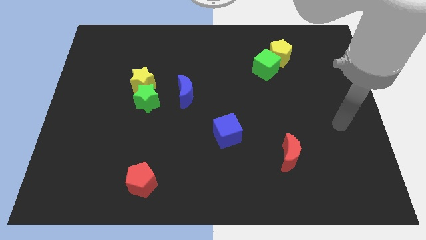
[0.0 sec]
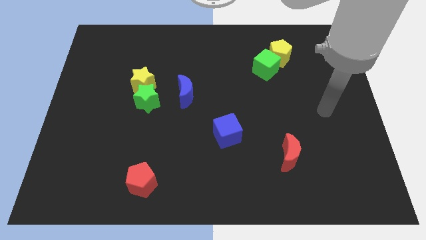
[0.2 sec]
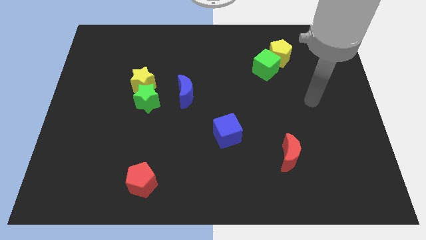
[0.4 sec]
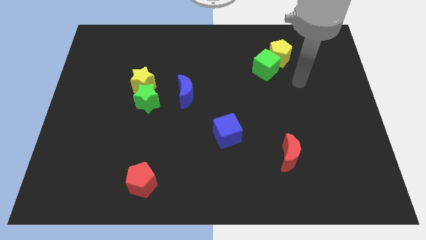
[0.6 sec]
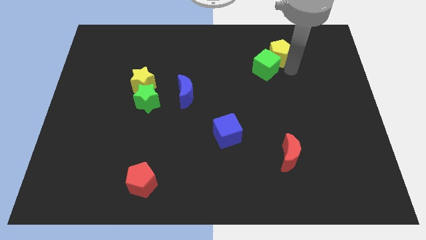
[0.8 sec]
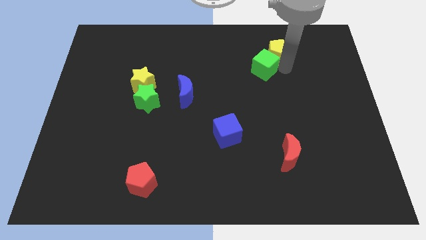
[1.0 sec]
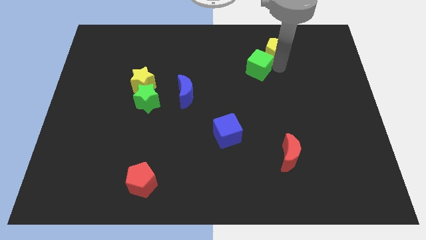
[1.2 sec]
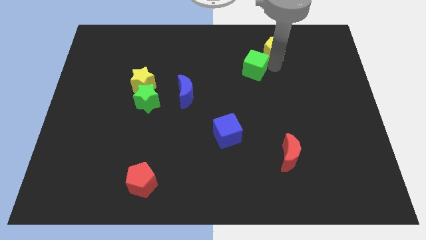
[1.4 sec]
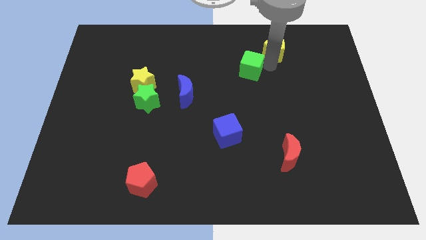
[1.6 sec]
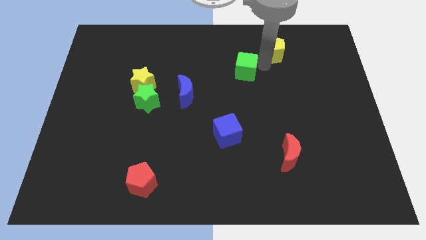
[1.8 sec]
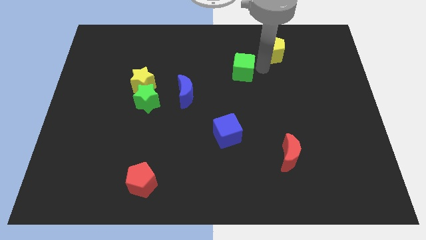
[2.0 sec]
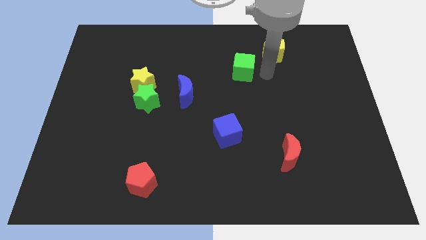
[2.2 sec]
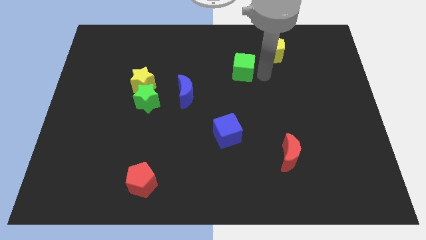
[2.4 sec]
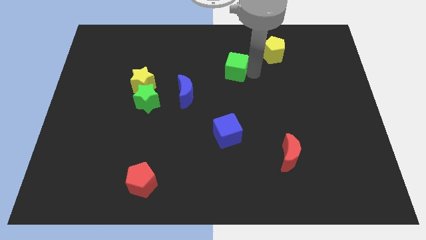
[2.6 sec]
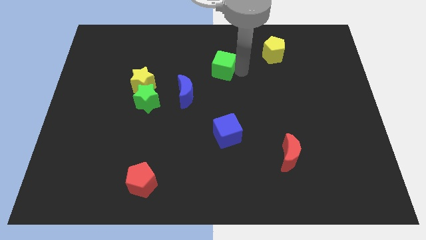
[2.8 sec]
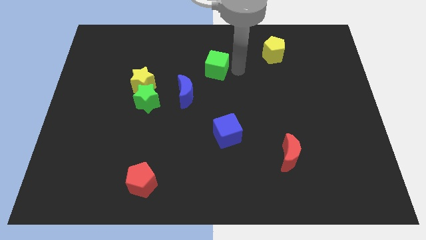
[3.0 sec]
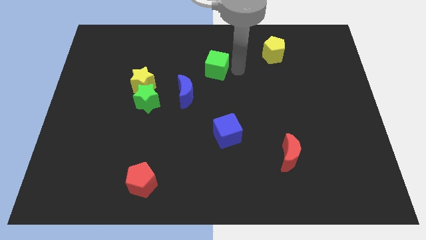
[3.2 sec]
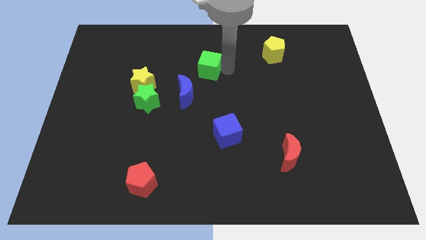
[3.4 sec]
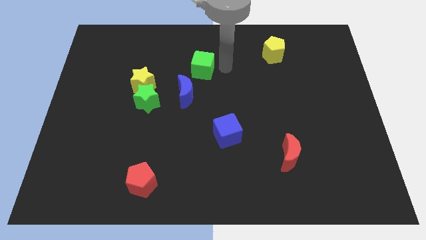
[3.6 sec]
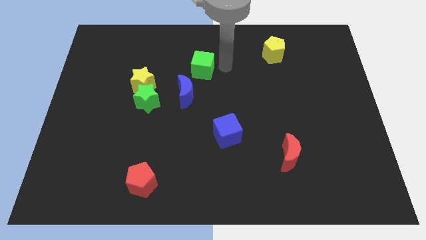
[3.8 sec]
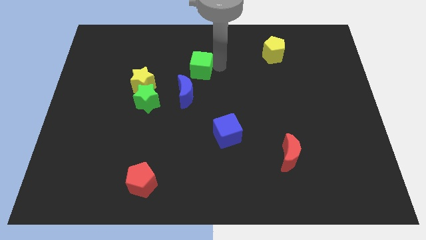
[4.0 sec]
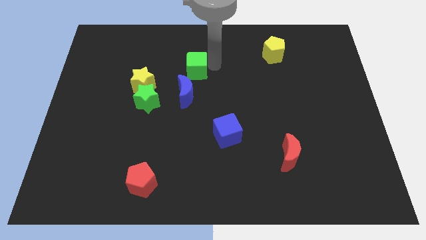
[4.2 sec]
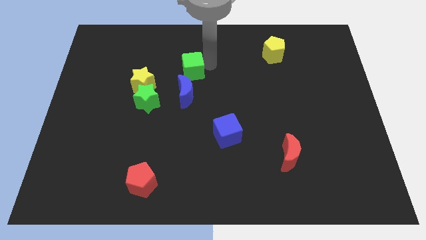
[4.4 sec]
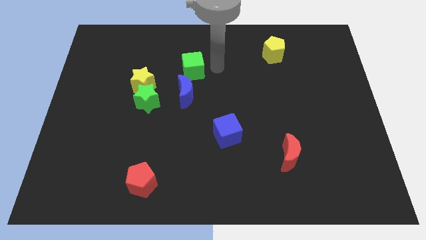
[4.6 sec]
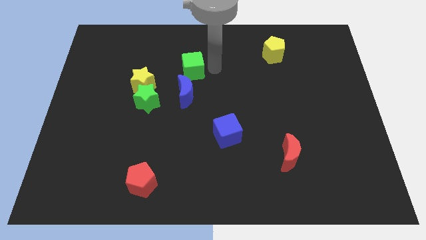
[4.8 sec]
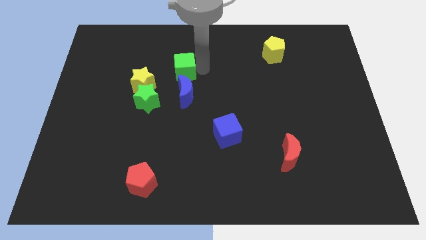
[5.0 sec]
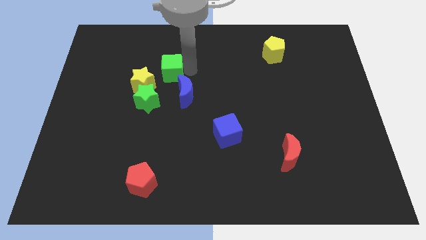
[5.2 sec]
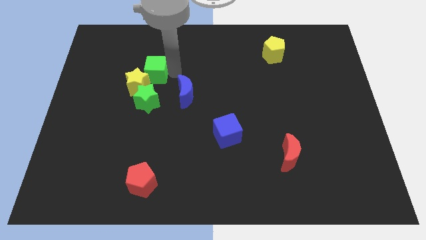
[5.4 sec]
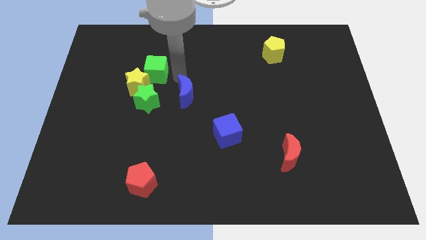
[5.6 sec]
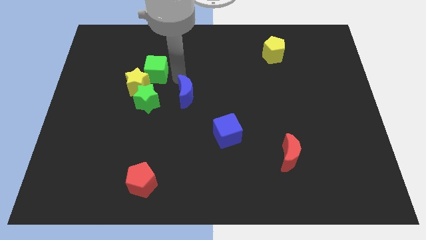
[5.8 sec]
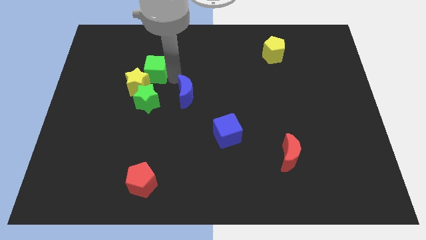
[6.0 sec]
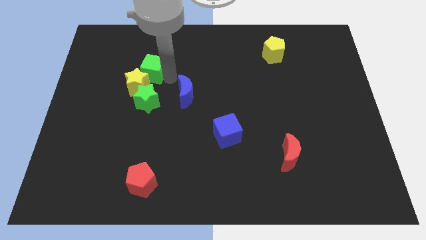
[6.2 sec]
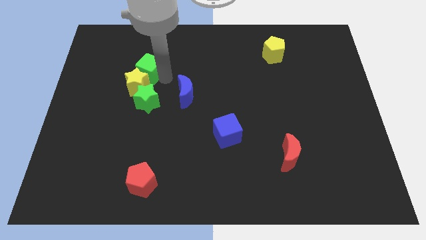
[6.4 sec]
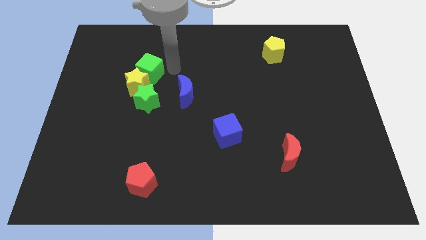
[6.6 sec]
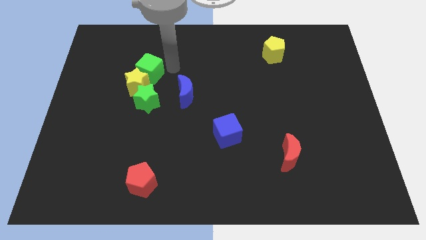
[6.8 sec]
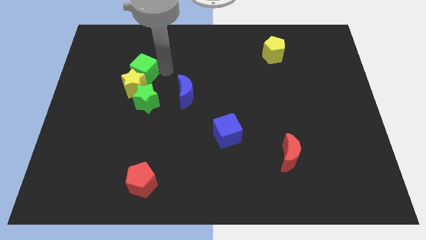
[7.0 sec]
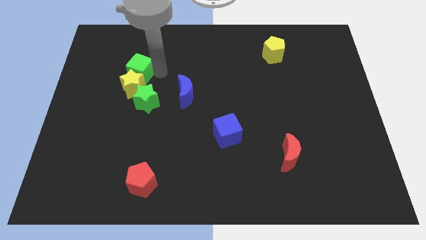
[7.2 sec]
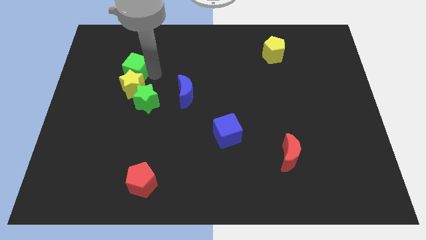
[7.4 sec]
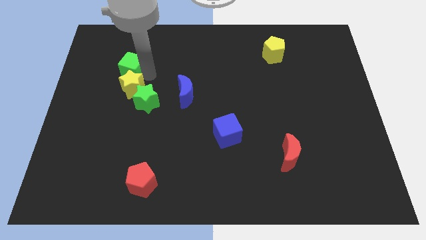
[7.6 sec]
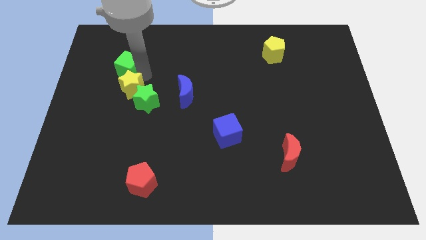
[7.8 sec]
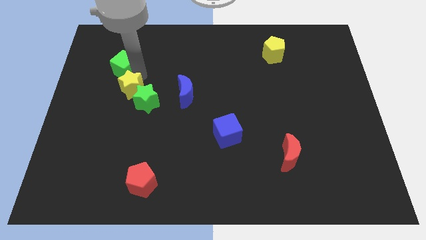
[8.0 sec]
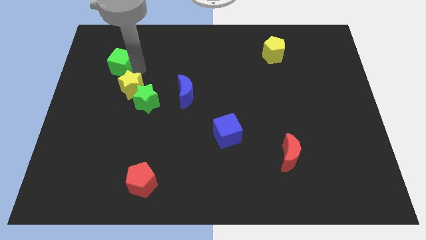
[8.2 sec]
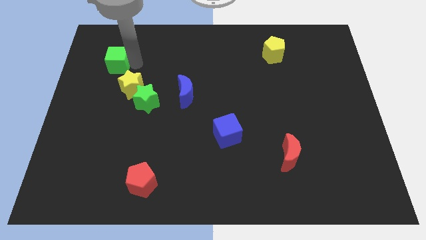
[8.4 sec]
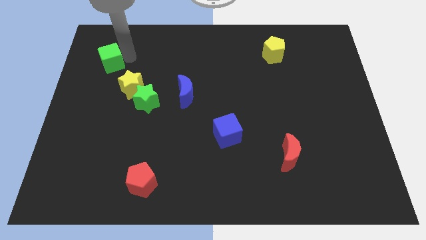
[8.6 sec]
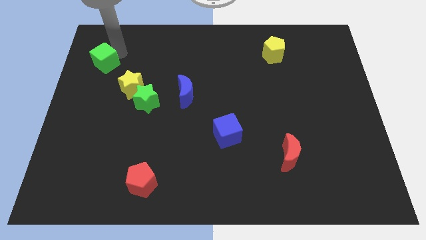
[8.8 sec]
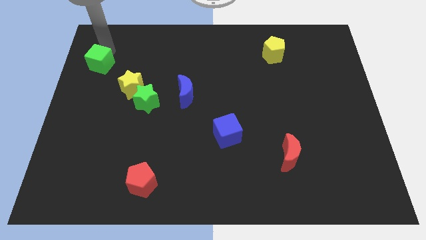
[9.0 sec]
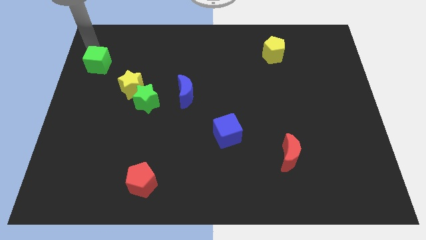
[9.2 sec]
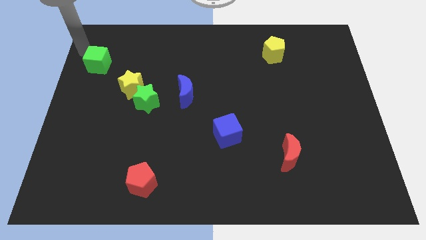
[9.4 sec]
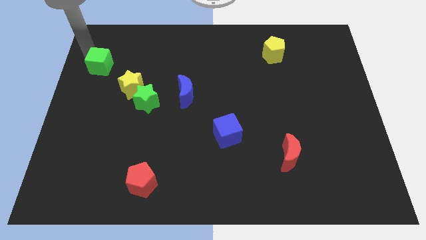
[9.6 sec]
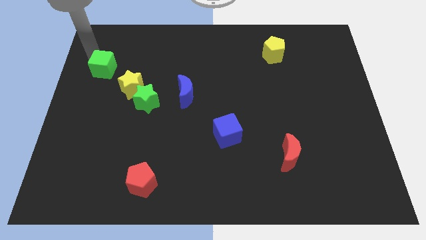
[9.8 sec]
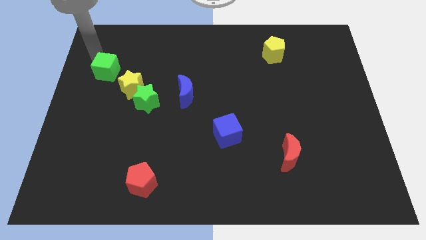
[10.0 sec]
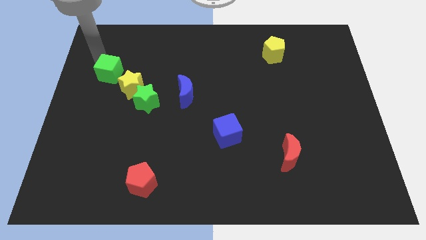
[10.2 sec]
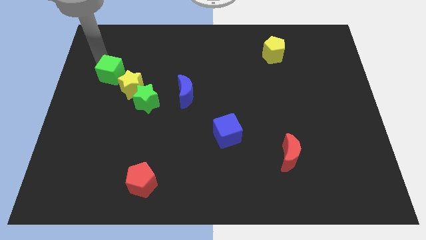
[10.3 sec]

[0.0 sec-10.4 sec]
push the green cube just left of the yellow star

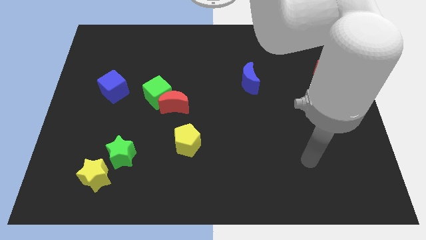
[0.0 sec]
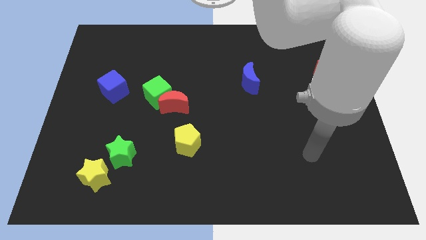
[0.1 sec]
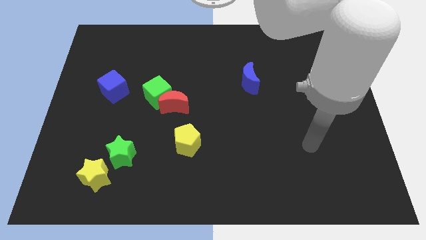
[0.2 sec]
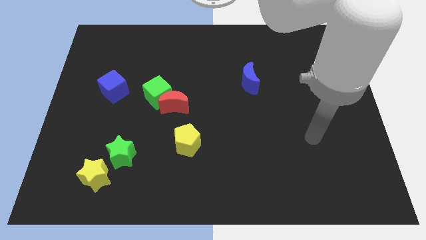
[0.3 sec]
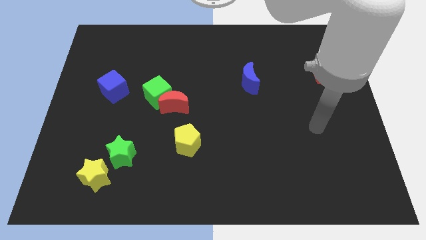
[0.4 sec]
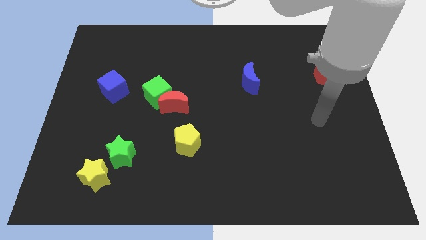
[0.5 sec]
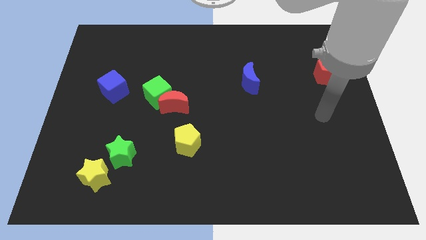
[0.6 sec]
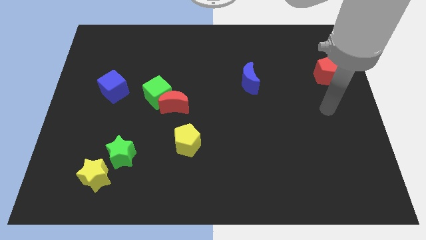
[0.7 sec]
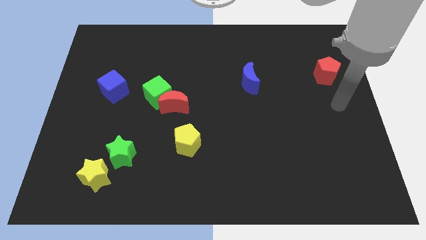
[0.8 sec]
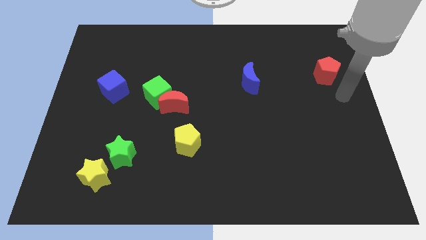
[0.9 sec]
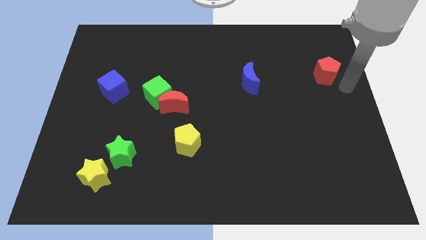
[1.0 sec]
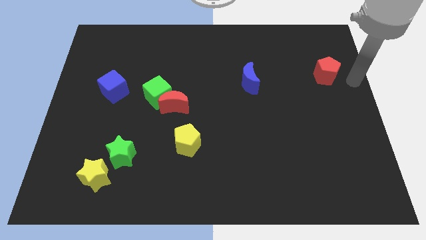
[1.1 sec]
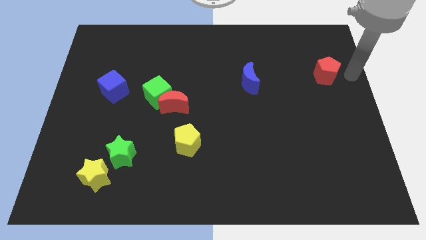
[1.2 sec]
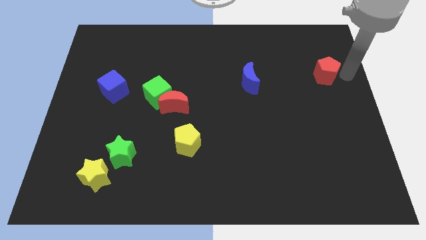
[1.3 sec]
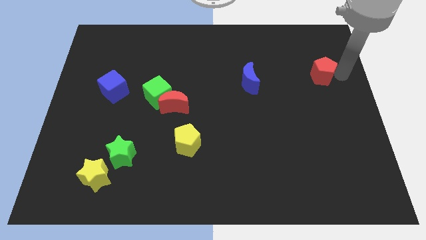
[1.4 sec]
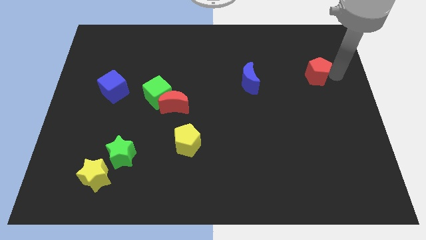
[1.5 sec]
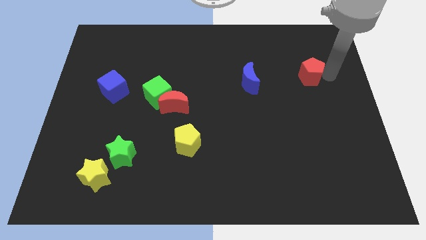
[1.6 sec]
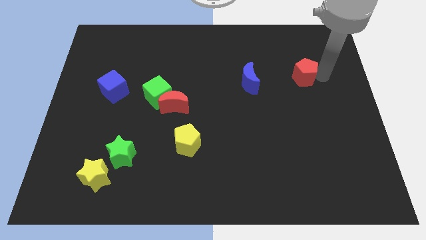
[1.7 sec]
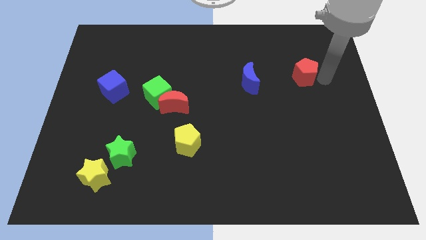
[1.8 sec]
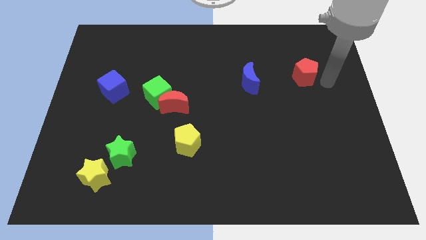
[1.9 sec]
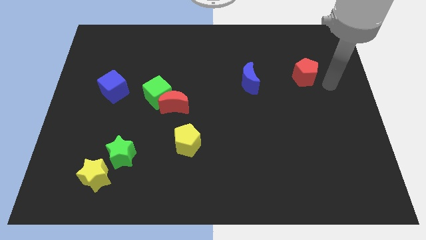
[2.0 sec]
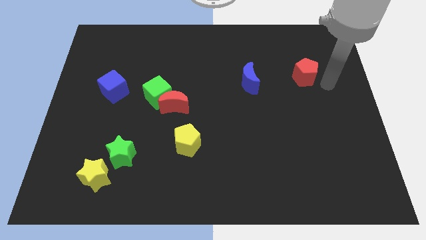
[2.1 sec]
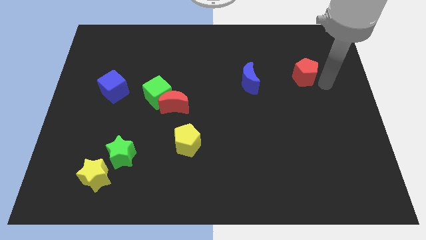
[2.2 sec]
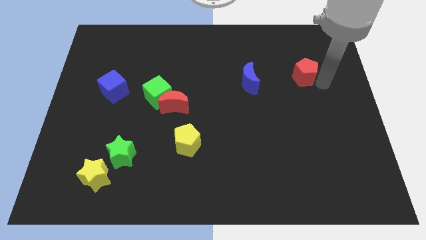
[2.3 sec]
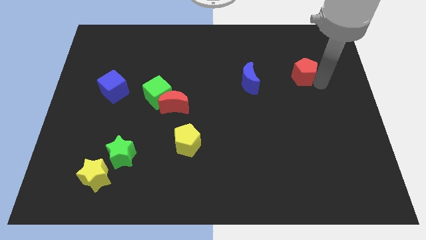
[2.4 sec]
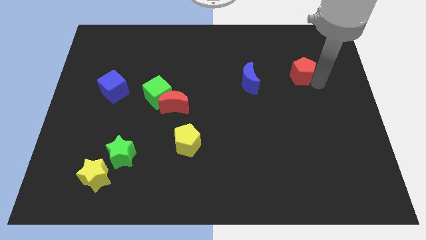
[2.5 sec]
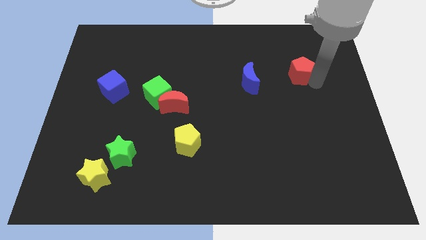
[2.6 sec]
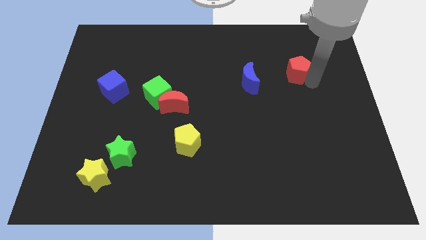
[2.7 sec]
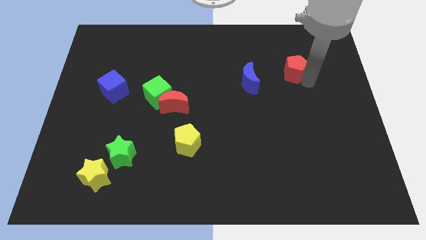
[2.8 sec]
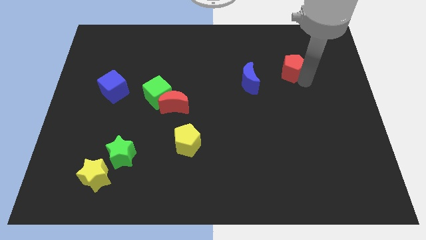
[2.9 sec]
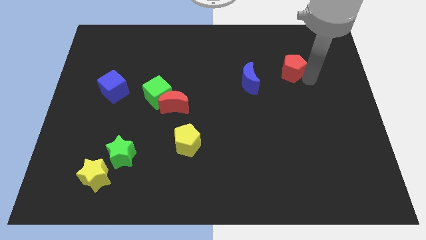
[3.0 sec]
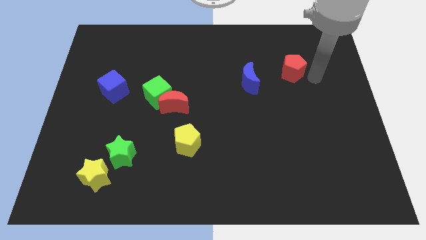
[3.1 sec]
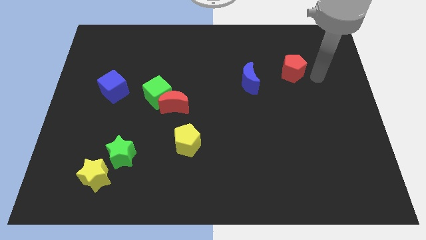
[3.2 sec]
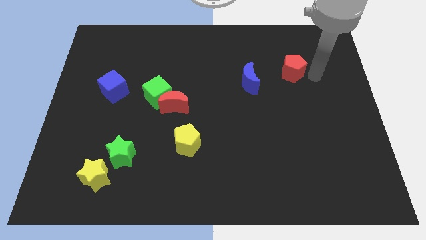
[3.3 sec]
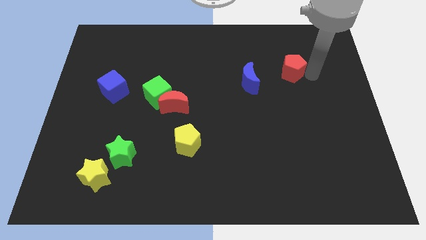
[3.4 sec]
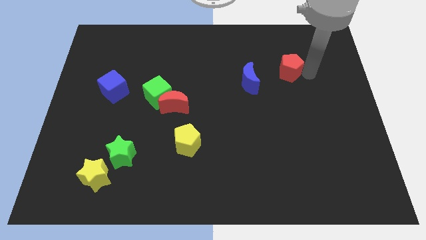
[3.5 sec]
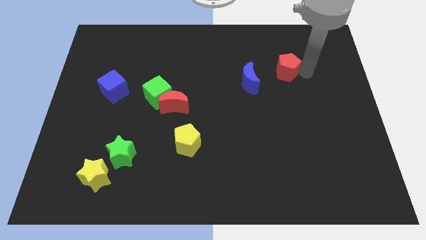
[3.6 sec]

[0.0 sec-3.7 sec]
move the red pentagon to the top right side of the blue moon
